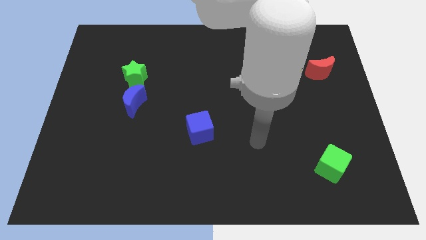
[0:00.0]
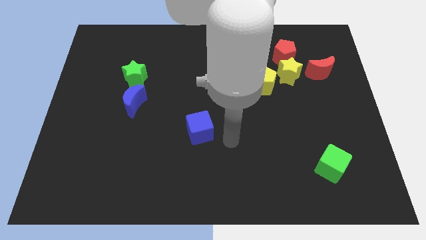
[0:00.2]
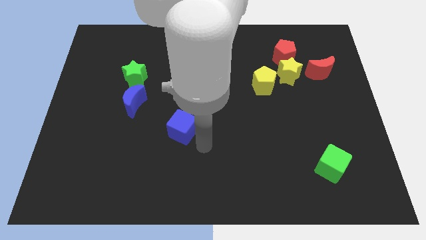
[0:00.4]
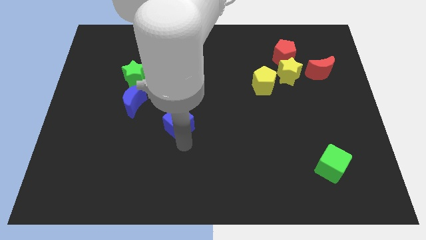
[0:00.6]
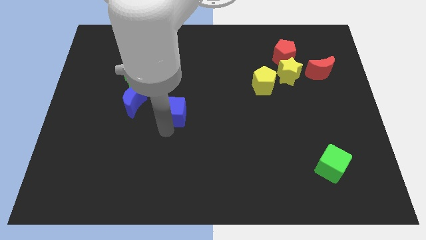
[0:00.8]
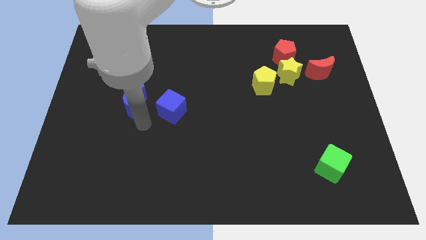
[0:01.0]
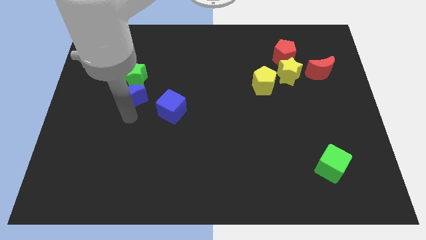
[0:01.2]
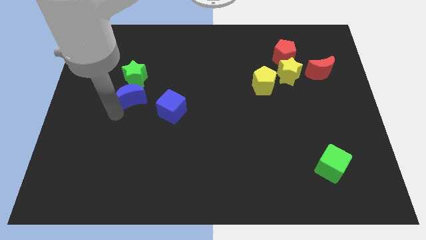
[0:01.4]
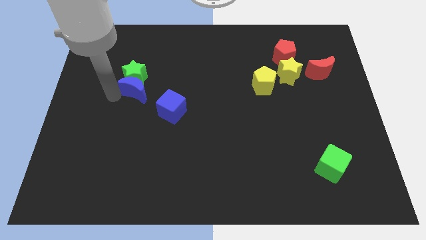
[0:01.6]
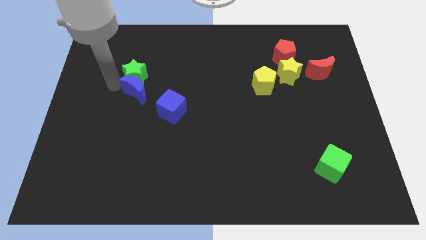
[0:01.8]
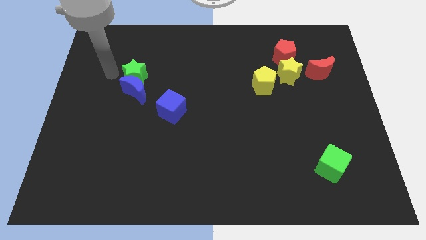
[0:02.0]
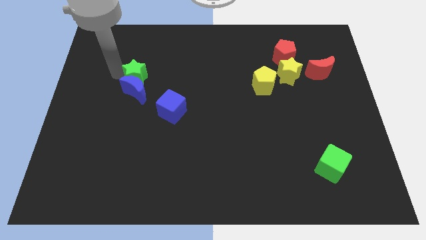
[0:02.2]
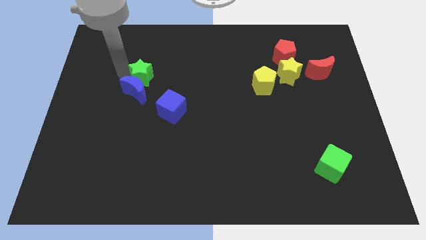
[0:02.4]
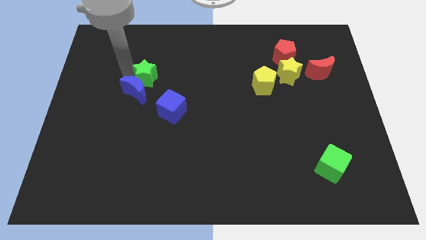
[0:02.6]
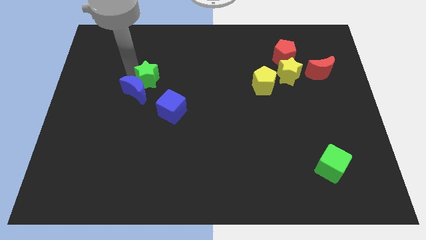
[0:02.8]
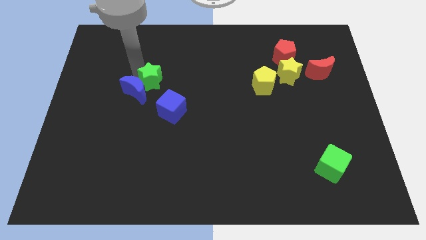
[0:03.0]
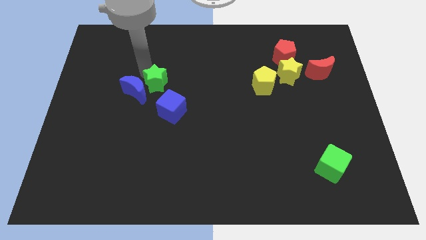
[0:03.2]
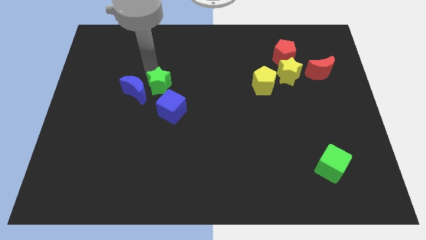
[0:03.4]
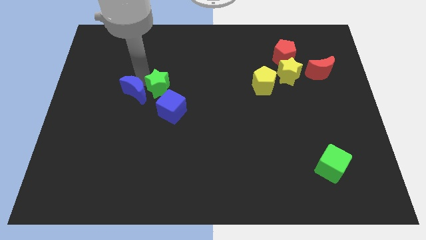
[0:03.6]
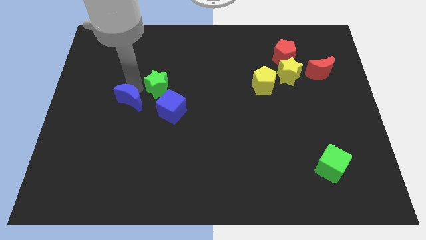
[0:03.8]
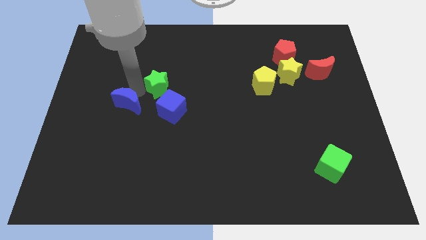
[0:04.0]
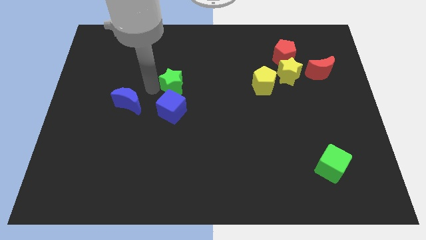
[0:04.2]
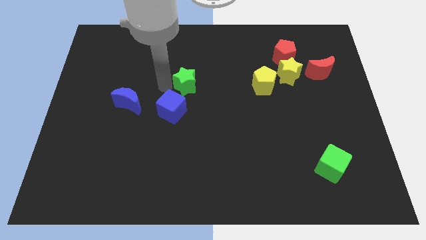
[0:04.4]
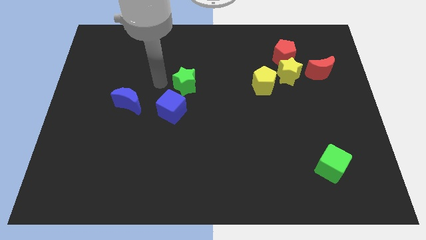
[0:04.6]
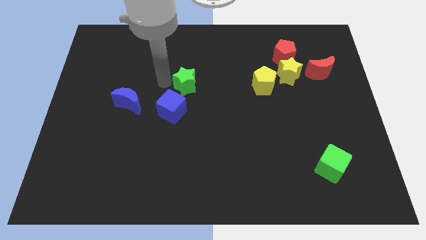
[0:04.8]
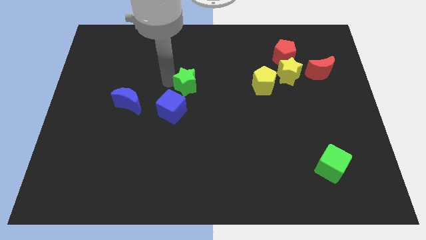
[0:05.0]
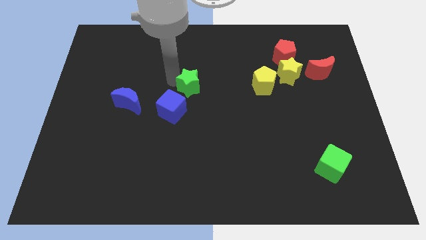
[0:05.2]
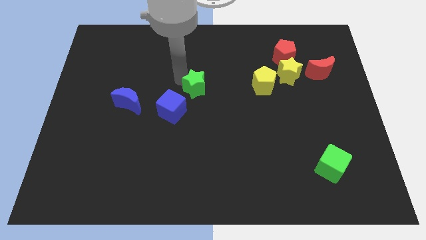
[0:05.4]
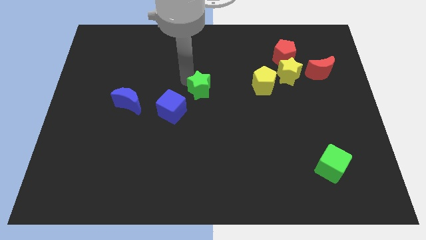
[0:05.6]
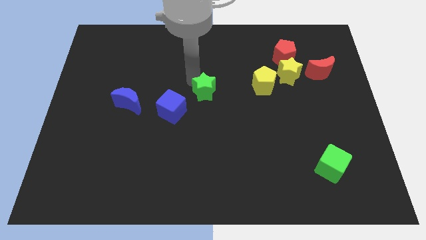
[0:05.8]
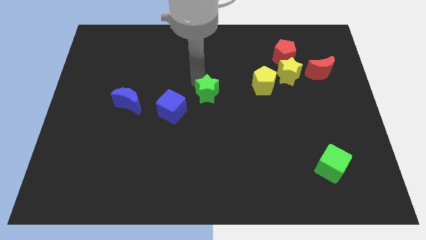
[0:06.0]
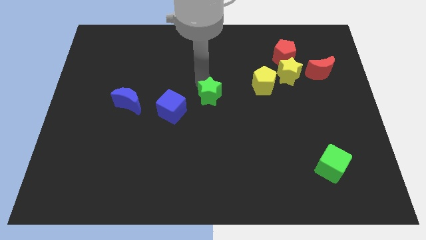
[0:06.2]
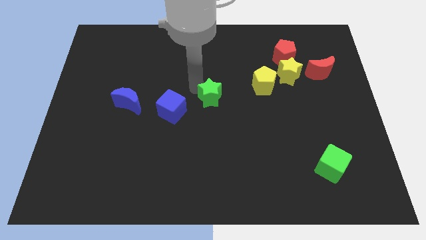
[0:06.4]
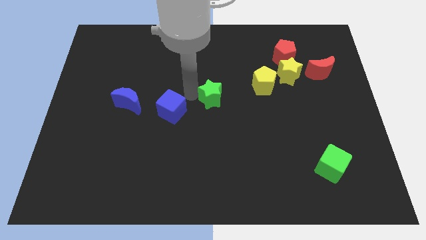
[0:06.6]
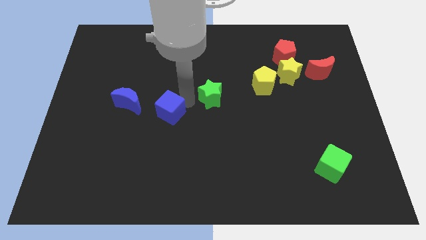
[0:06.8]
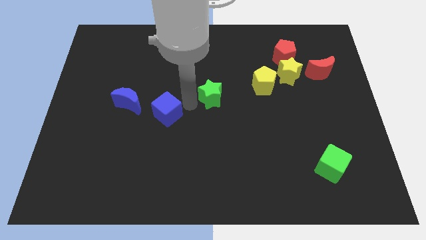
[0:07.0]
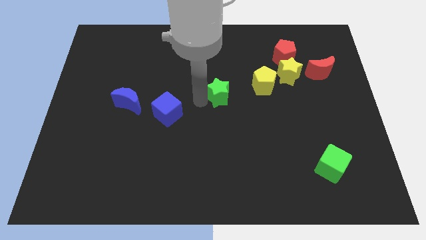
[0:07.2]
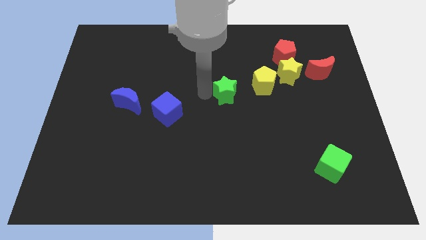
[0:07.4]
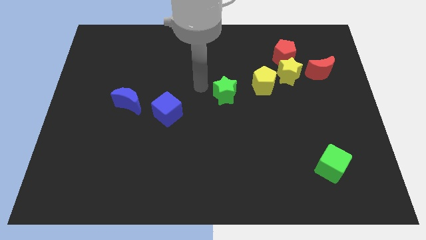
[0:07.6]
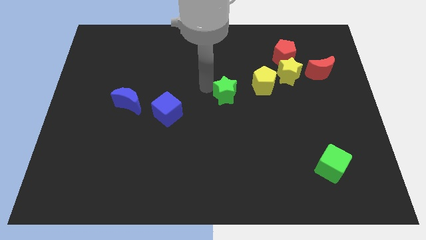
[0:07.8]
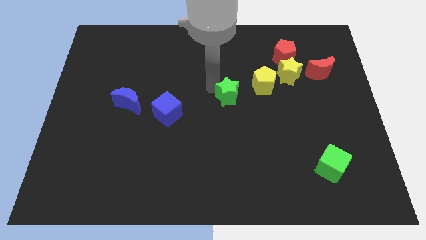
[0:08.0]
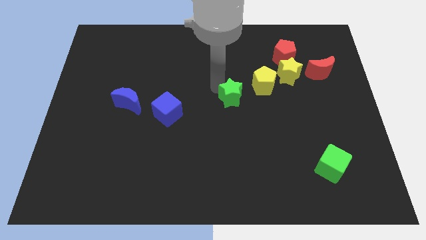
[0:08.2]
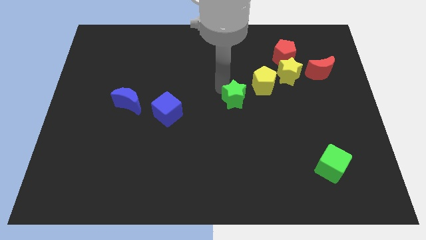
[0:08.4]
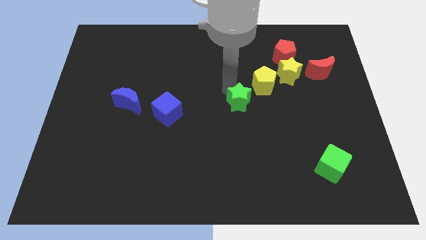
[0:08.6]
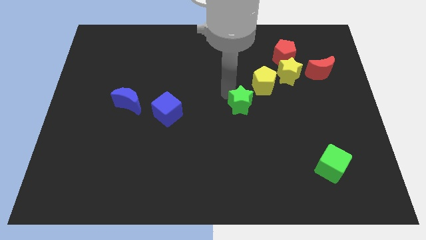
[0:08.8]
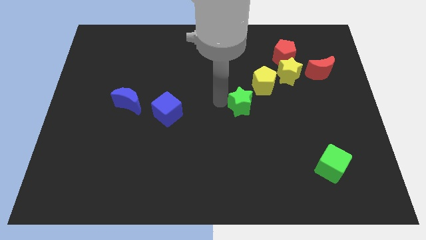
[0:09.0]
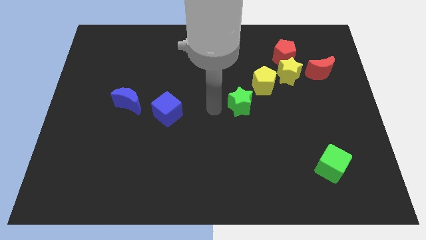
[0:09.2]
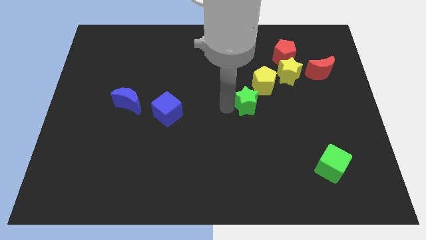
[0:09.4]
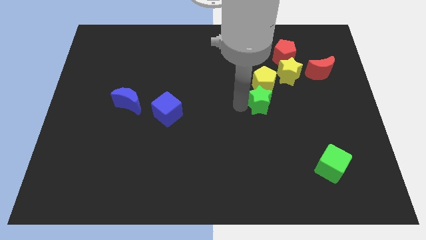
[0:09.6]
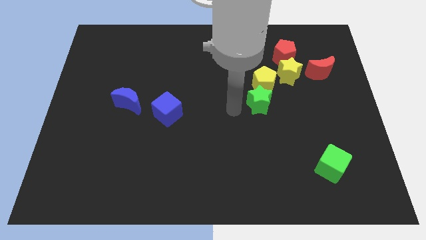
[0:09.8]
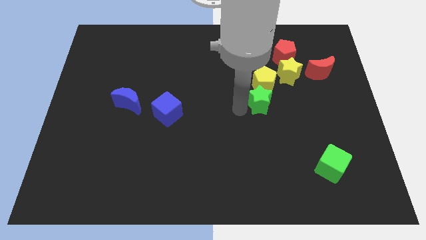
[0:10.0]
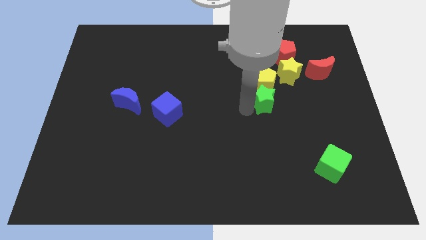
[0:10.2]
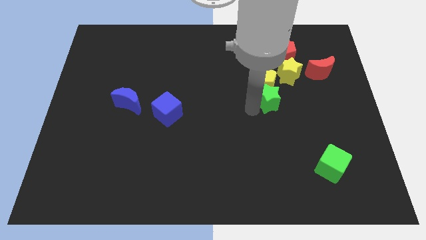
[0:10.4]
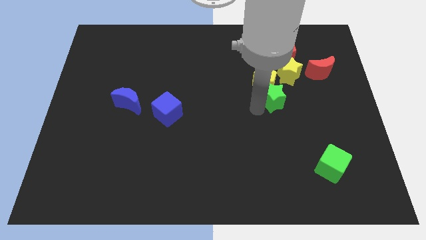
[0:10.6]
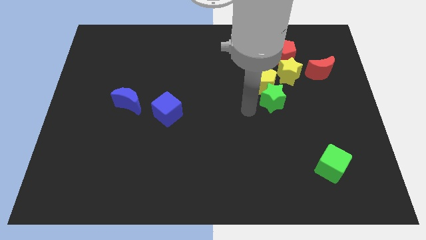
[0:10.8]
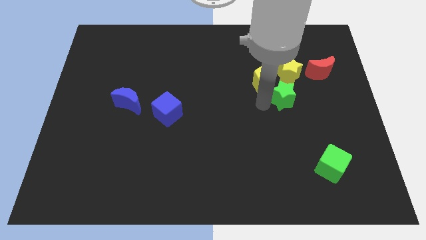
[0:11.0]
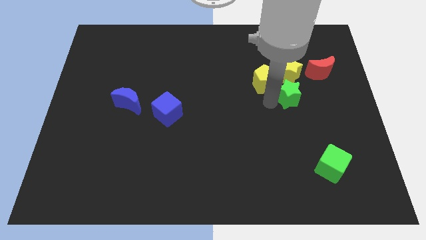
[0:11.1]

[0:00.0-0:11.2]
slide the green star to the bottom left side of the red moon

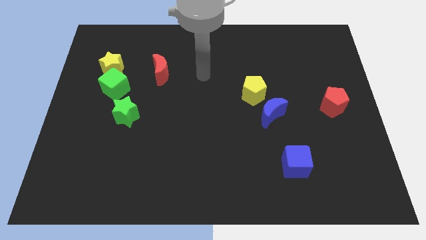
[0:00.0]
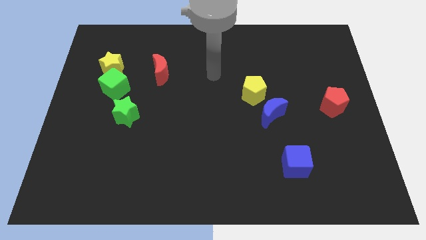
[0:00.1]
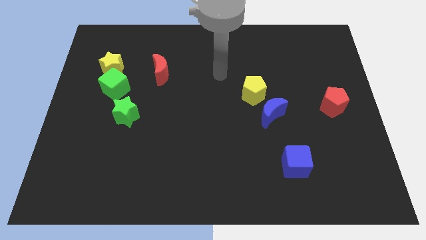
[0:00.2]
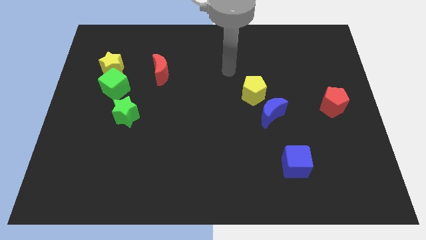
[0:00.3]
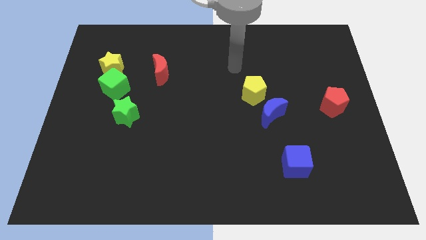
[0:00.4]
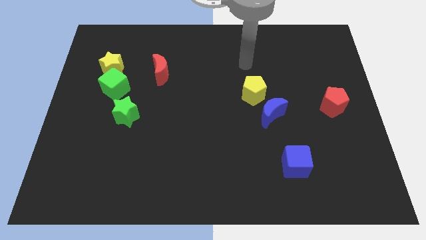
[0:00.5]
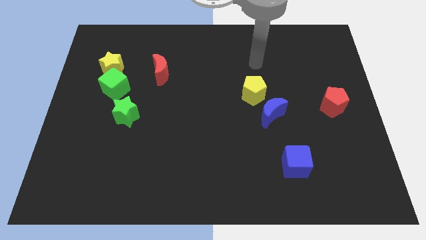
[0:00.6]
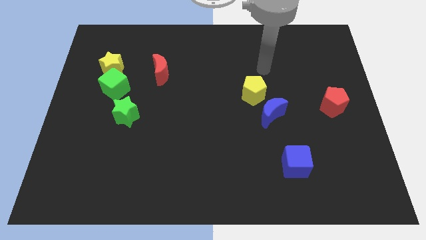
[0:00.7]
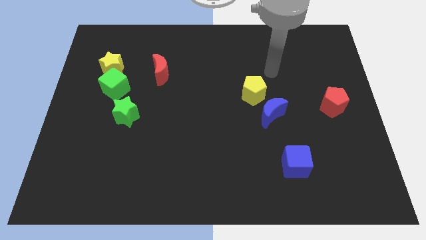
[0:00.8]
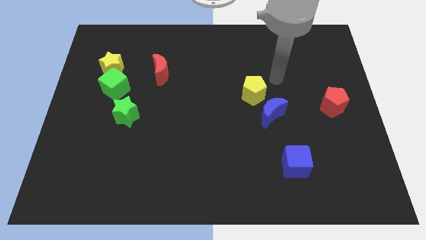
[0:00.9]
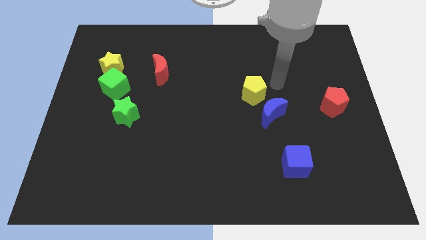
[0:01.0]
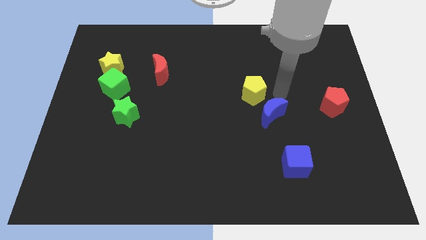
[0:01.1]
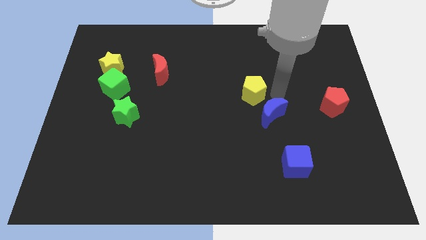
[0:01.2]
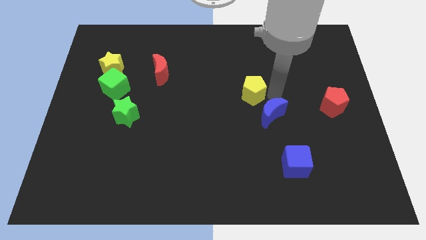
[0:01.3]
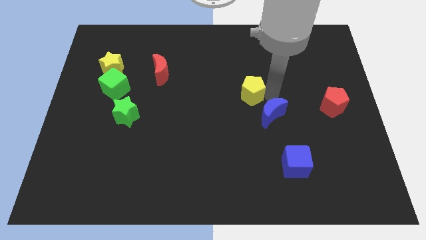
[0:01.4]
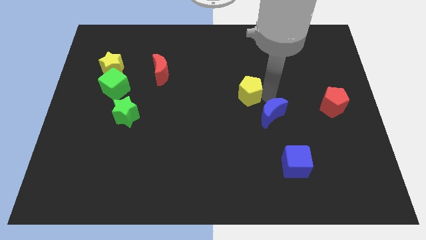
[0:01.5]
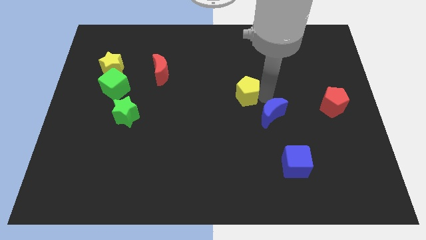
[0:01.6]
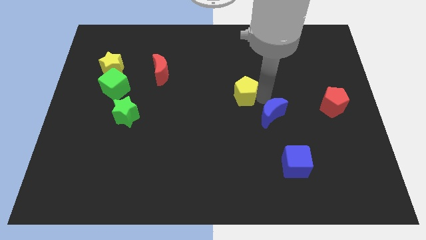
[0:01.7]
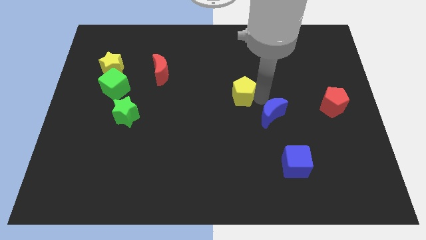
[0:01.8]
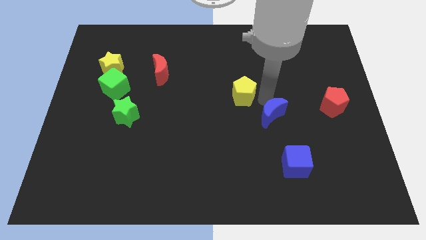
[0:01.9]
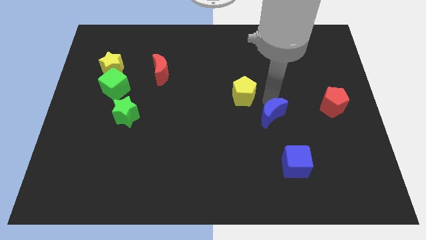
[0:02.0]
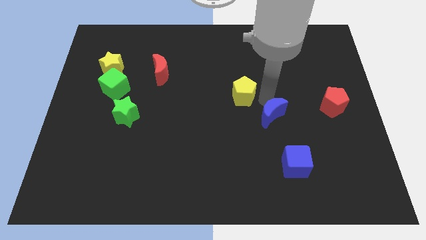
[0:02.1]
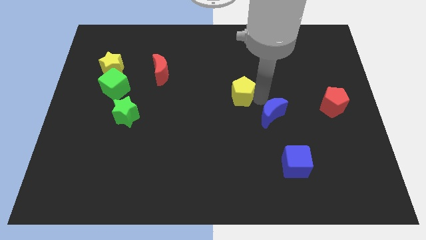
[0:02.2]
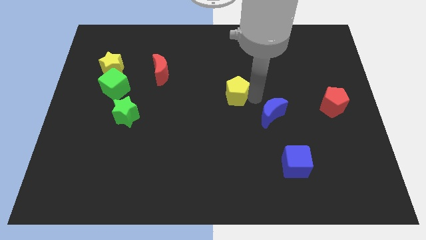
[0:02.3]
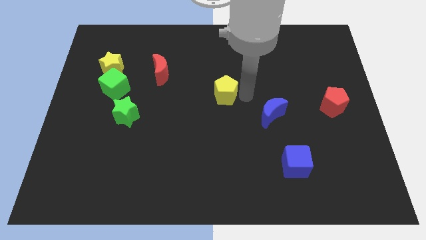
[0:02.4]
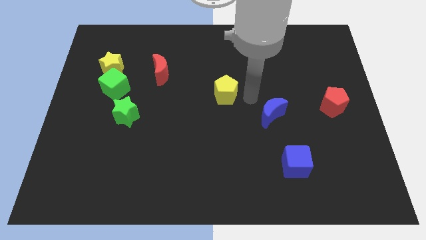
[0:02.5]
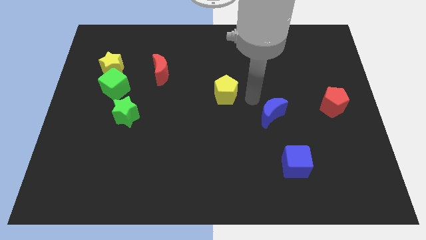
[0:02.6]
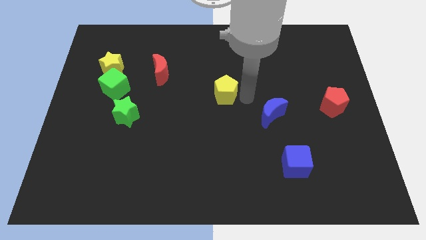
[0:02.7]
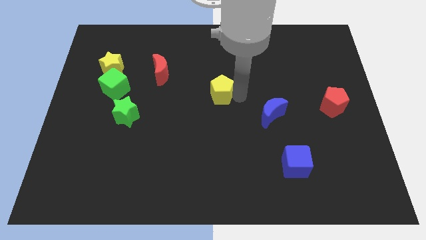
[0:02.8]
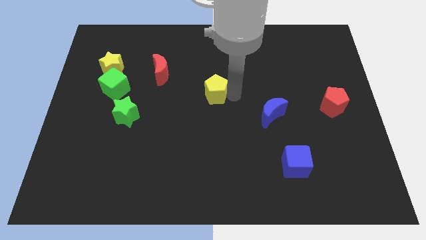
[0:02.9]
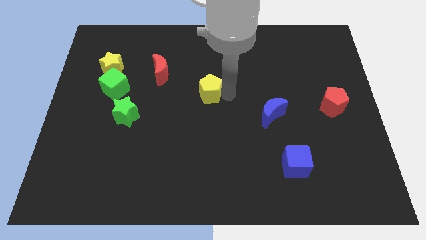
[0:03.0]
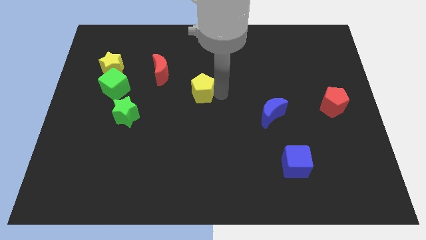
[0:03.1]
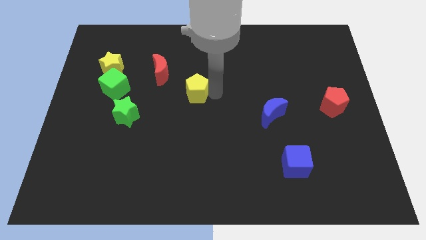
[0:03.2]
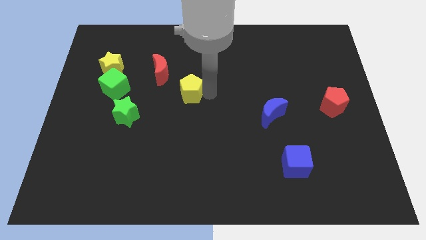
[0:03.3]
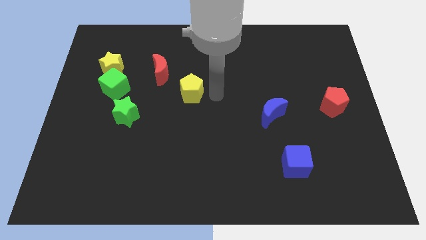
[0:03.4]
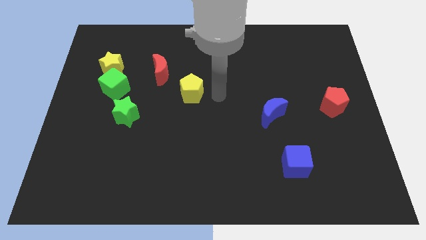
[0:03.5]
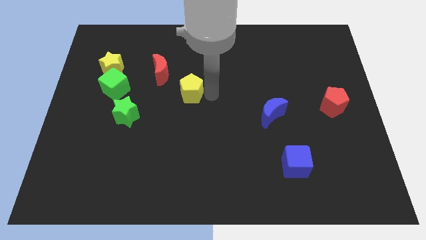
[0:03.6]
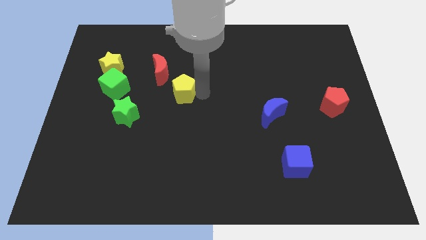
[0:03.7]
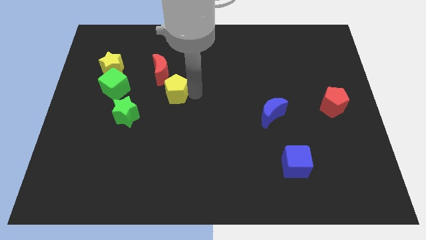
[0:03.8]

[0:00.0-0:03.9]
push the yellow pentagon to the right side of the green cube
